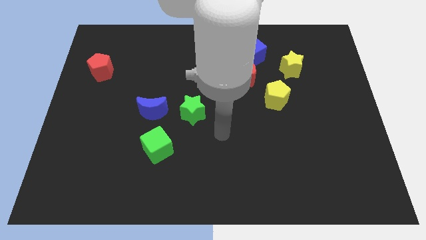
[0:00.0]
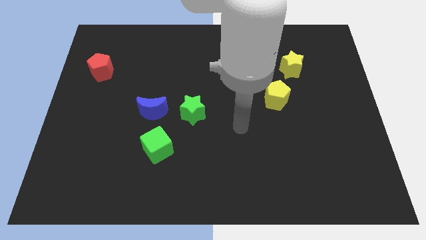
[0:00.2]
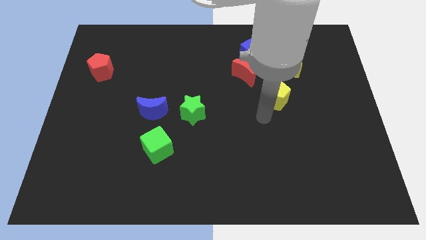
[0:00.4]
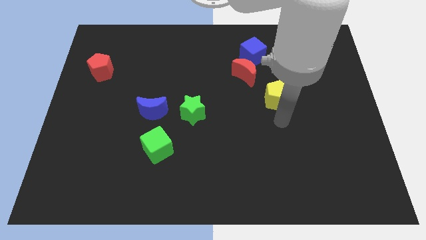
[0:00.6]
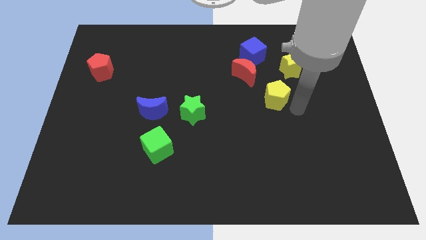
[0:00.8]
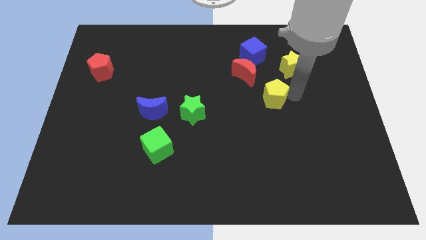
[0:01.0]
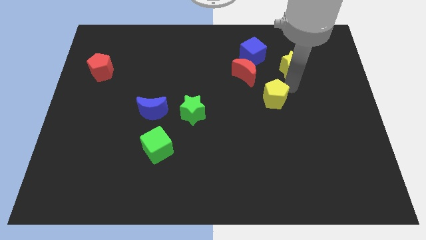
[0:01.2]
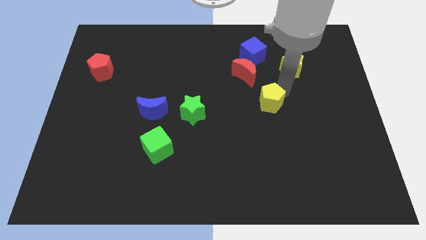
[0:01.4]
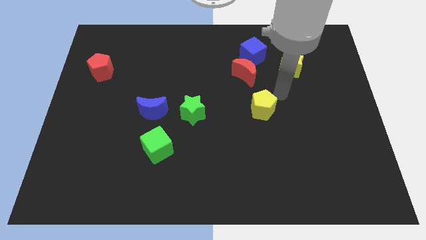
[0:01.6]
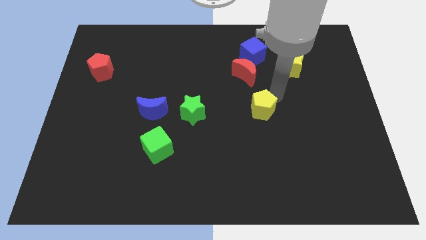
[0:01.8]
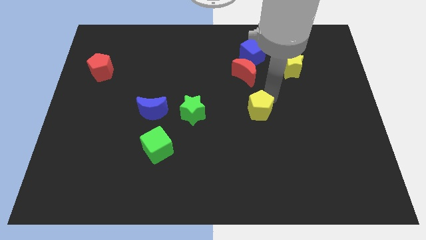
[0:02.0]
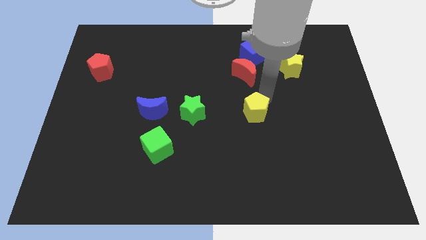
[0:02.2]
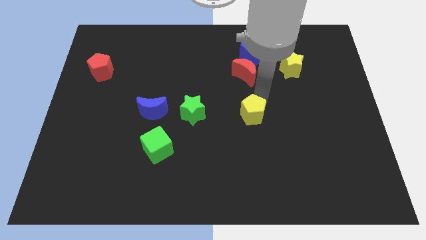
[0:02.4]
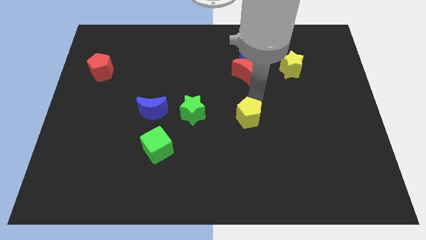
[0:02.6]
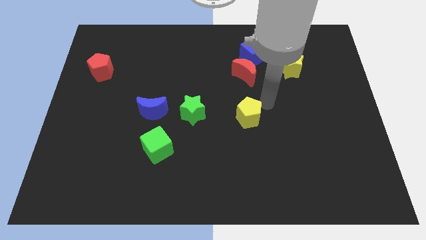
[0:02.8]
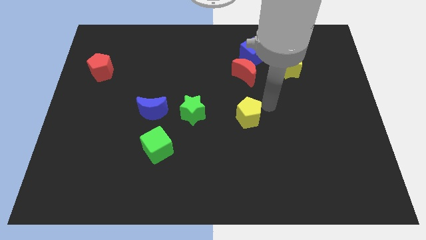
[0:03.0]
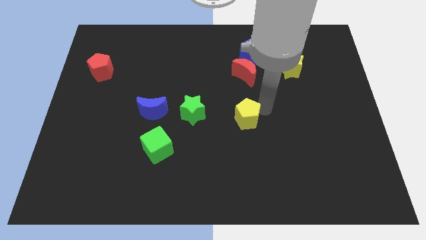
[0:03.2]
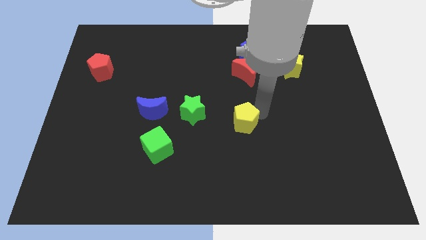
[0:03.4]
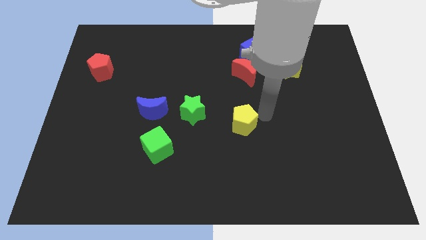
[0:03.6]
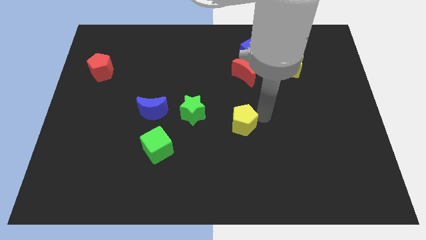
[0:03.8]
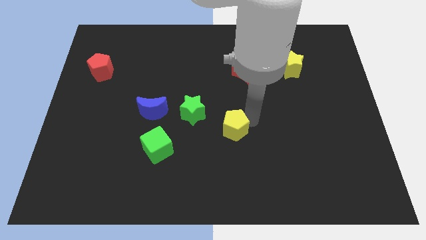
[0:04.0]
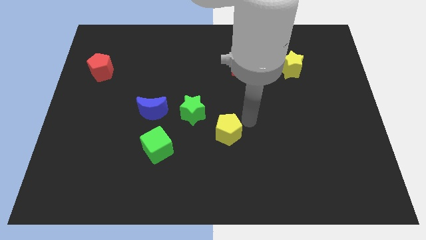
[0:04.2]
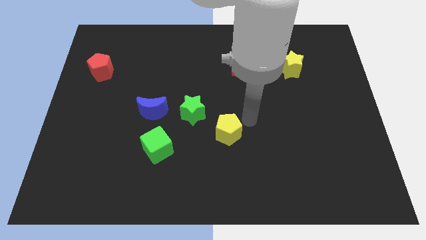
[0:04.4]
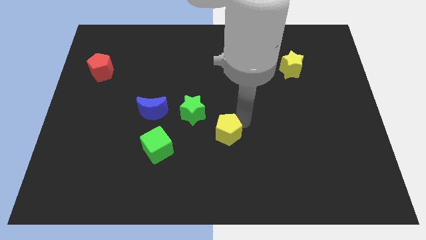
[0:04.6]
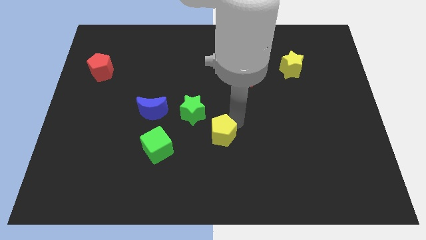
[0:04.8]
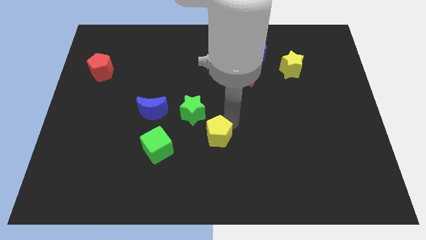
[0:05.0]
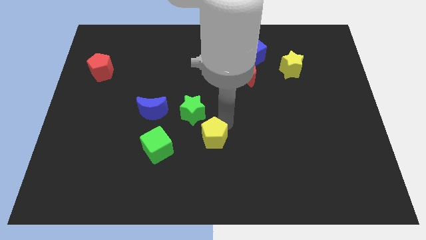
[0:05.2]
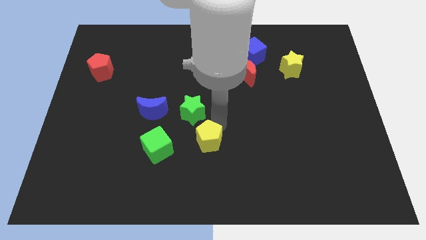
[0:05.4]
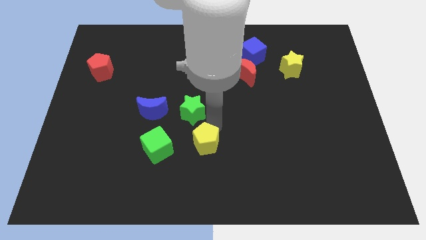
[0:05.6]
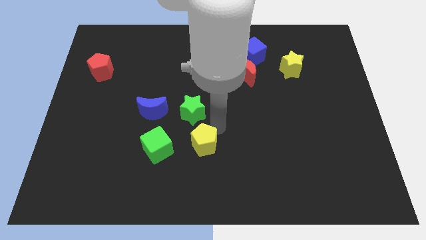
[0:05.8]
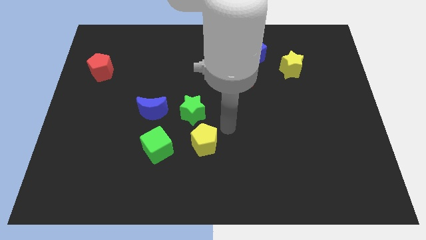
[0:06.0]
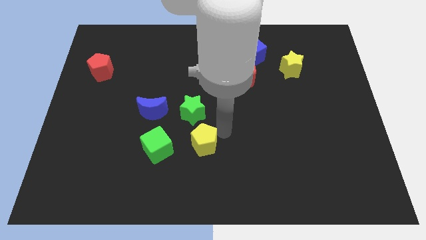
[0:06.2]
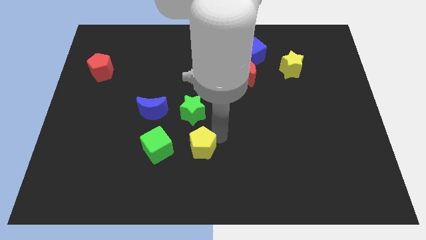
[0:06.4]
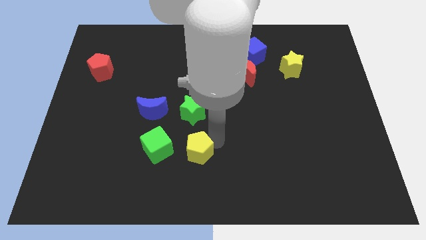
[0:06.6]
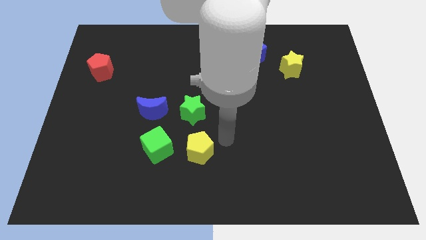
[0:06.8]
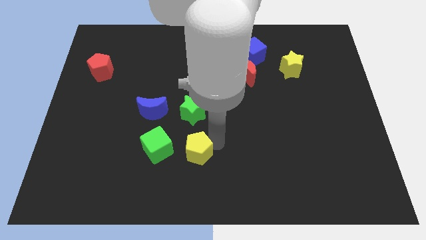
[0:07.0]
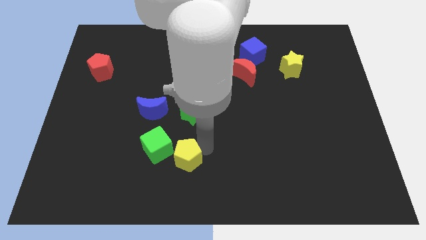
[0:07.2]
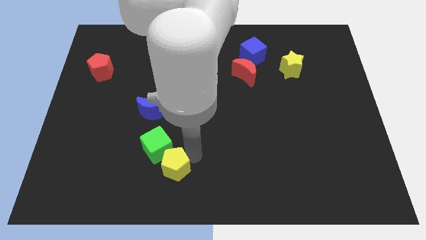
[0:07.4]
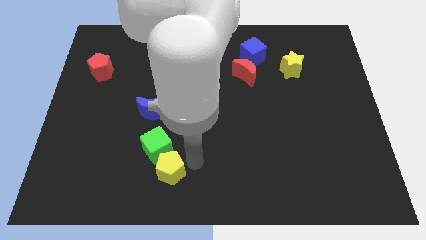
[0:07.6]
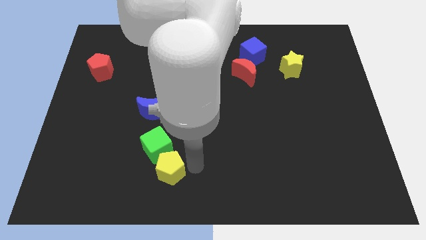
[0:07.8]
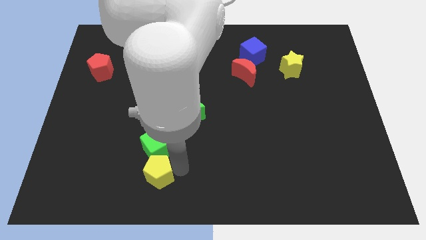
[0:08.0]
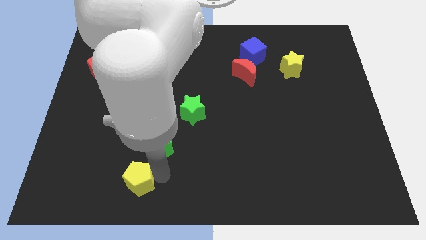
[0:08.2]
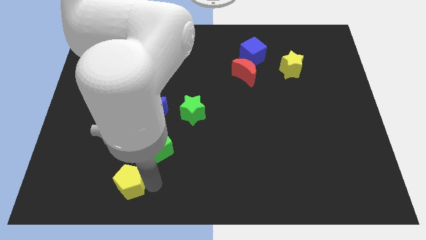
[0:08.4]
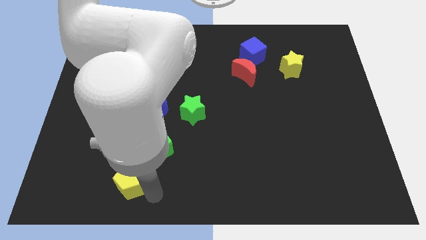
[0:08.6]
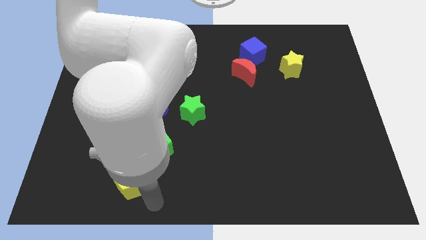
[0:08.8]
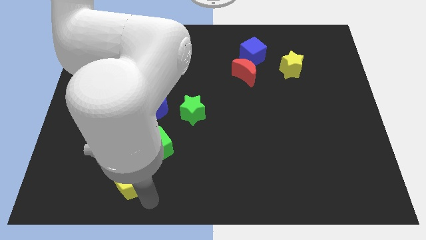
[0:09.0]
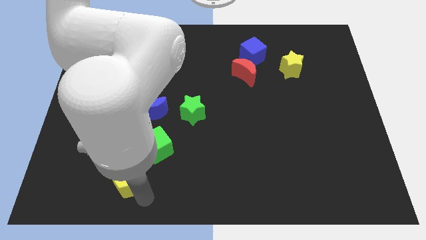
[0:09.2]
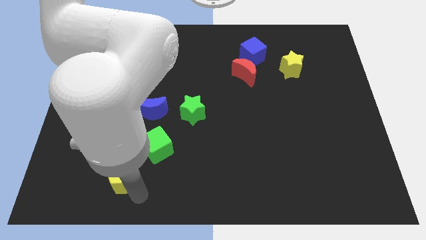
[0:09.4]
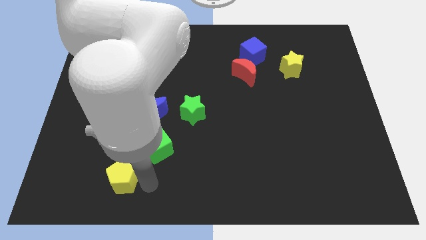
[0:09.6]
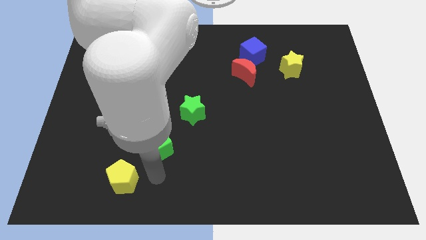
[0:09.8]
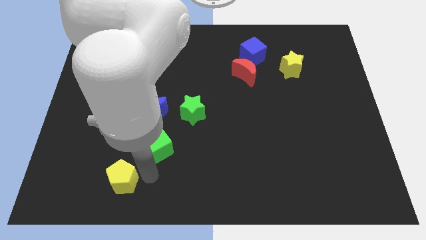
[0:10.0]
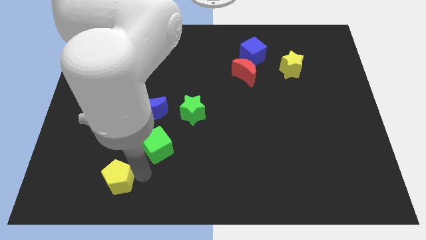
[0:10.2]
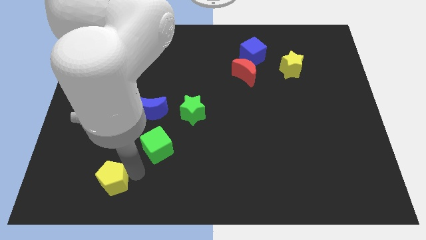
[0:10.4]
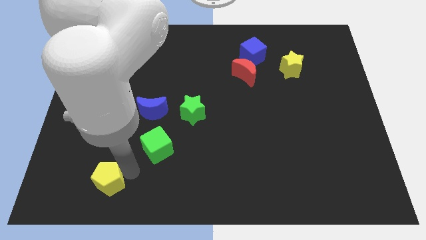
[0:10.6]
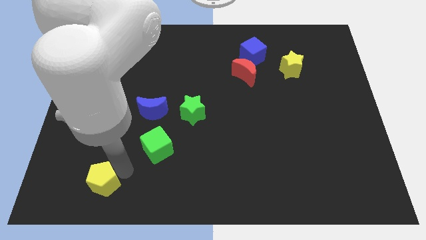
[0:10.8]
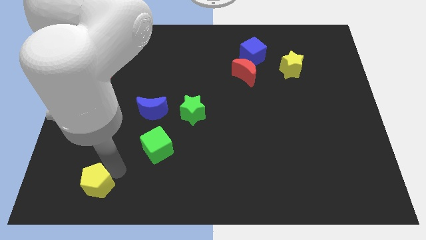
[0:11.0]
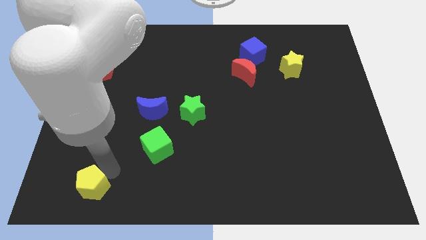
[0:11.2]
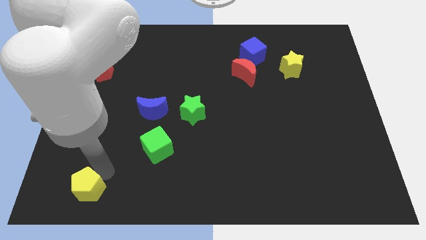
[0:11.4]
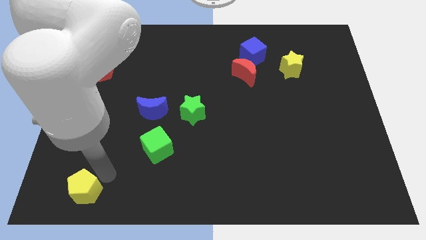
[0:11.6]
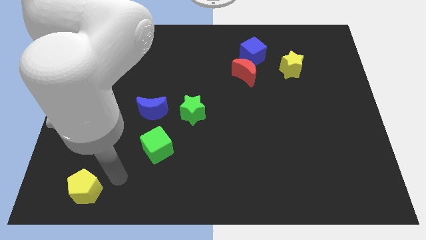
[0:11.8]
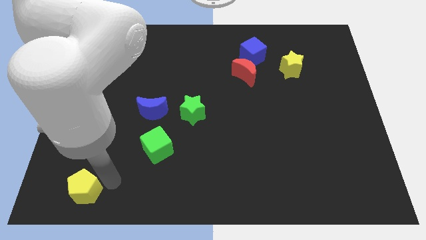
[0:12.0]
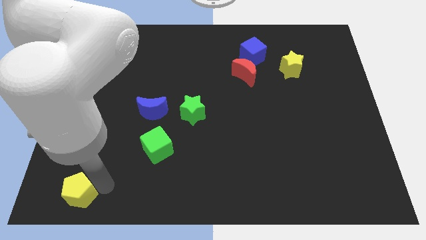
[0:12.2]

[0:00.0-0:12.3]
slide the yellow pentagon to the lower left corner

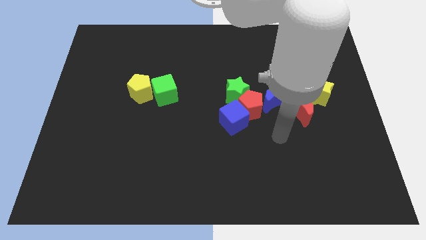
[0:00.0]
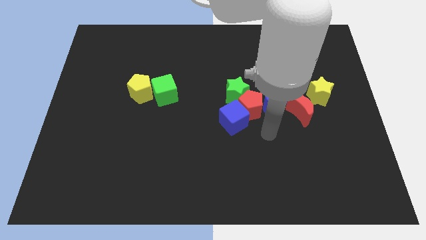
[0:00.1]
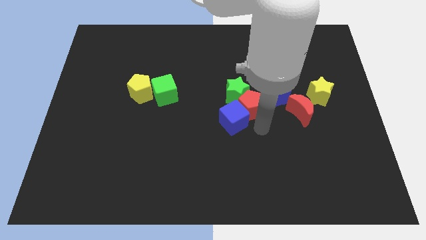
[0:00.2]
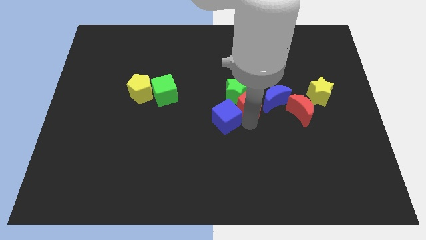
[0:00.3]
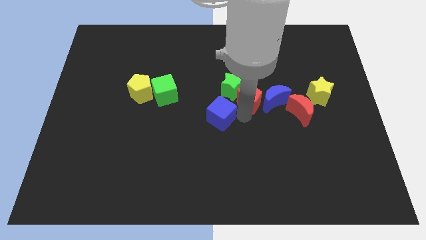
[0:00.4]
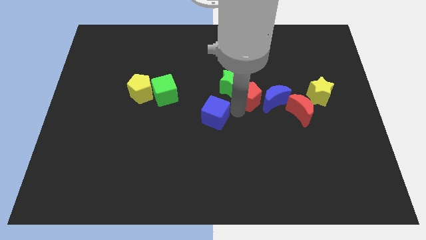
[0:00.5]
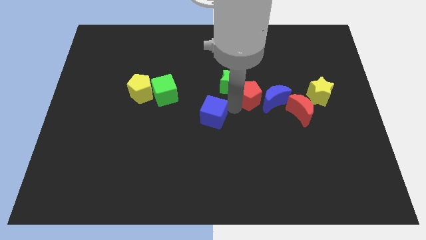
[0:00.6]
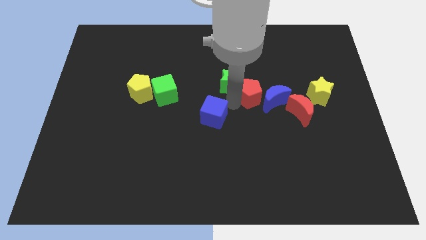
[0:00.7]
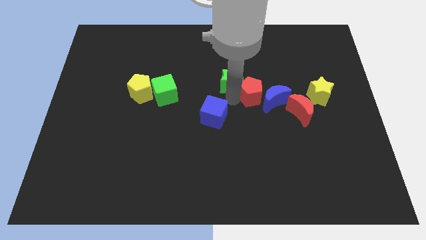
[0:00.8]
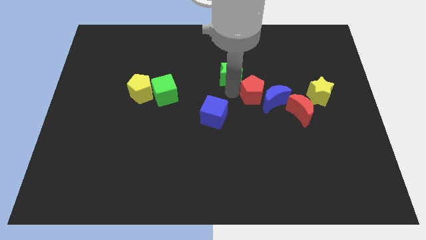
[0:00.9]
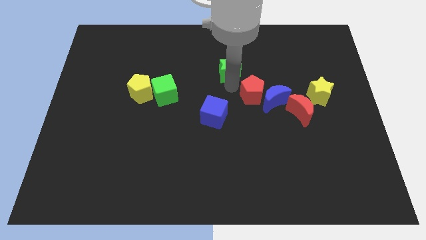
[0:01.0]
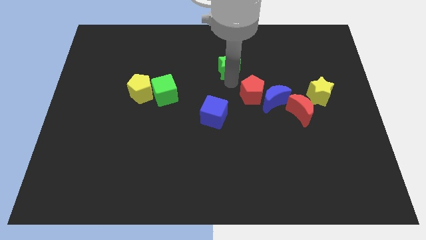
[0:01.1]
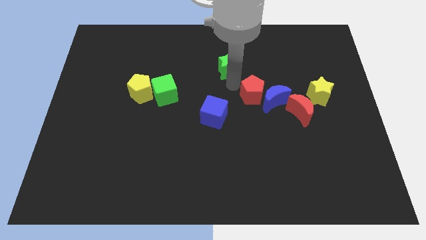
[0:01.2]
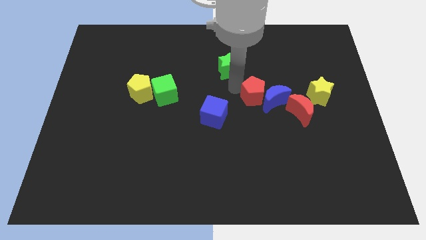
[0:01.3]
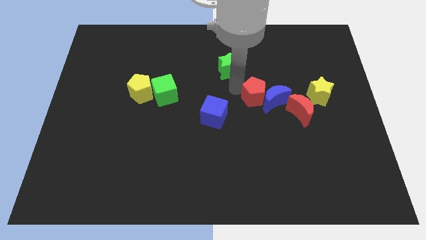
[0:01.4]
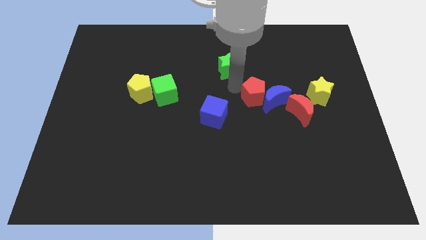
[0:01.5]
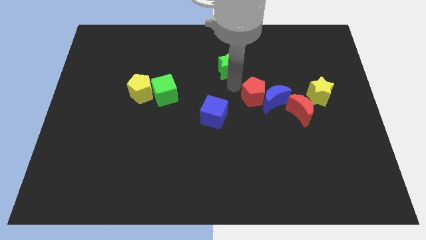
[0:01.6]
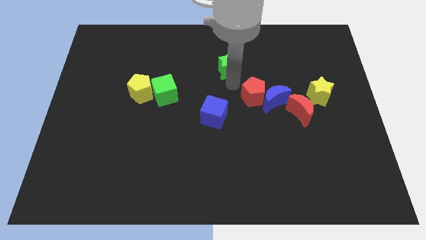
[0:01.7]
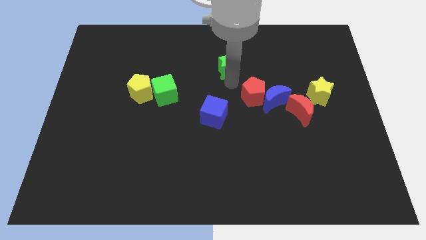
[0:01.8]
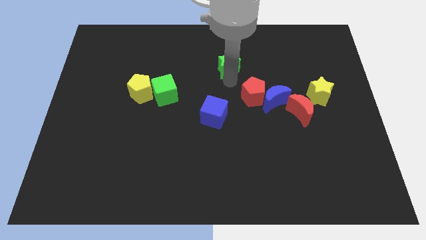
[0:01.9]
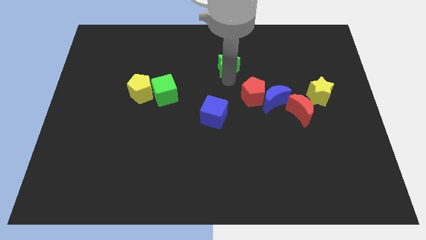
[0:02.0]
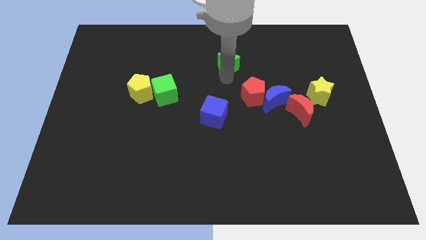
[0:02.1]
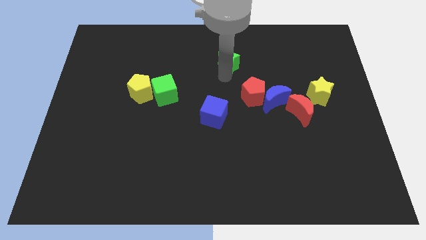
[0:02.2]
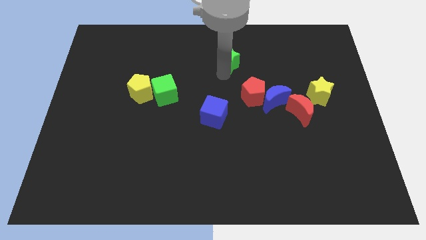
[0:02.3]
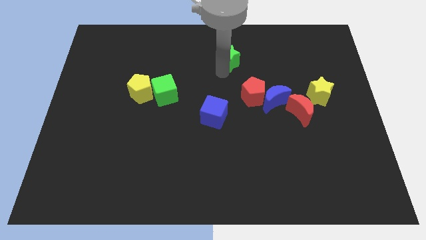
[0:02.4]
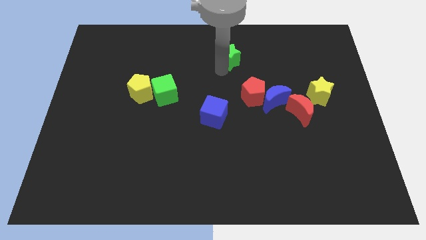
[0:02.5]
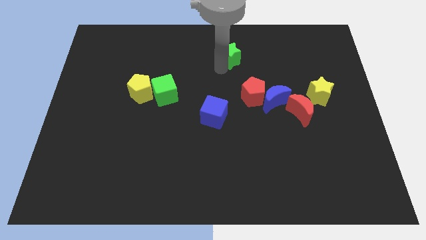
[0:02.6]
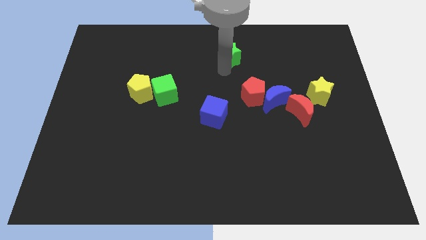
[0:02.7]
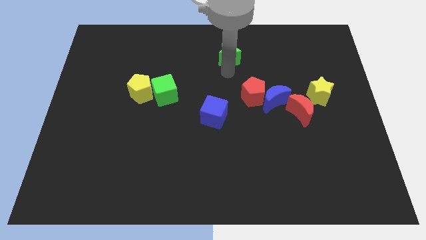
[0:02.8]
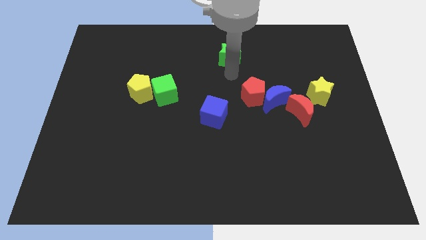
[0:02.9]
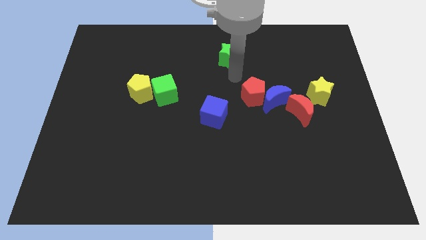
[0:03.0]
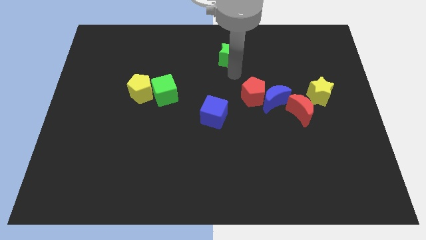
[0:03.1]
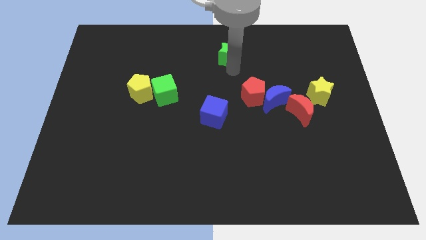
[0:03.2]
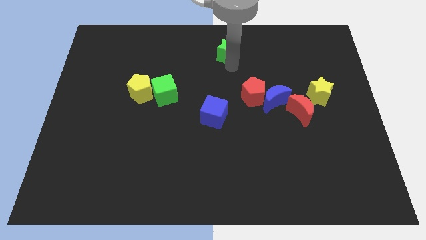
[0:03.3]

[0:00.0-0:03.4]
slide the green star to the top
